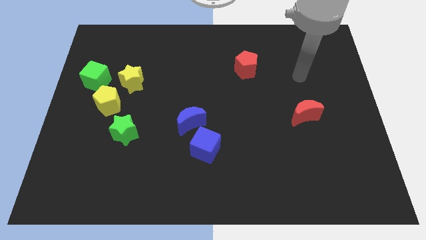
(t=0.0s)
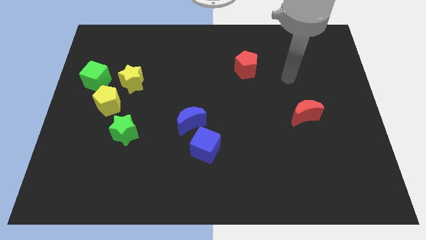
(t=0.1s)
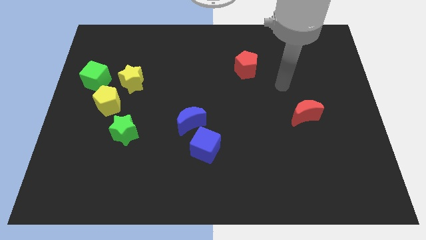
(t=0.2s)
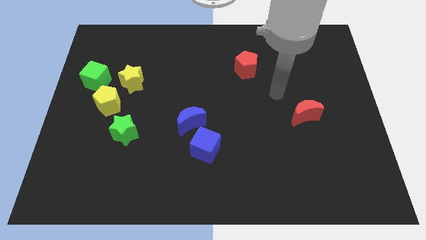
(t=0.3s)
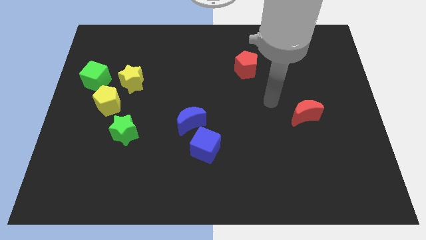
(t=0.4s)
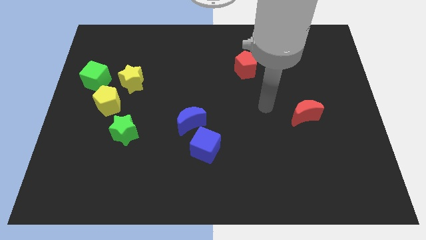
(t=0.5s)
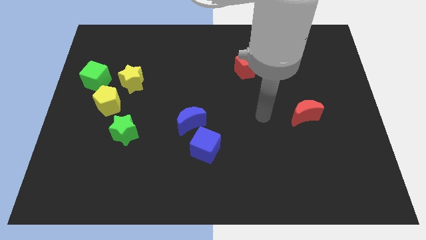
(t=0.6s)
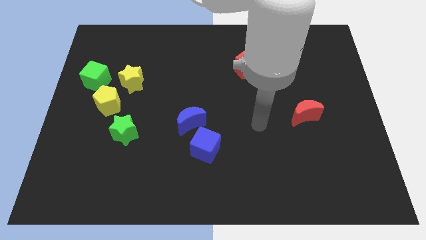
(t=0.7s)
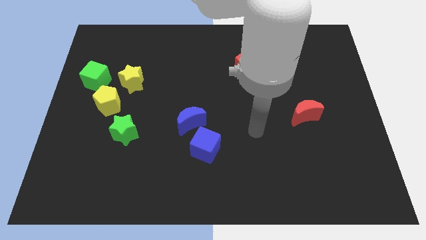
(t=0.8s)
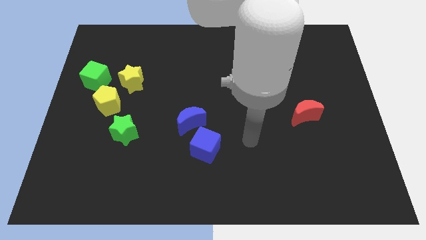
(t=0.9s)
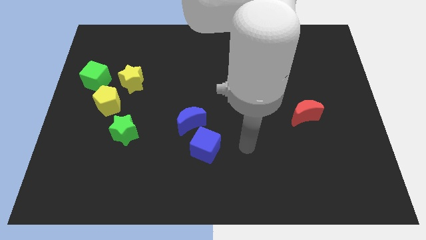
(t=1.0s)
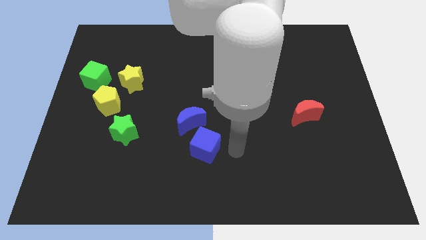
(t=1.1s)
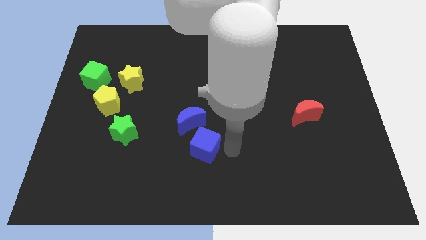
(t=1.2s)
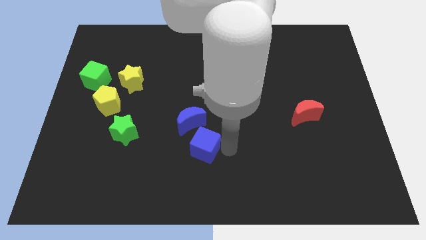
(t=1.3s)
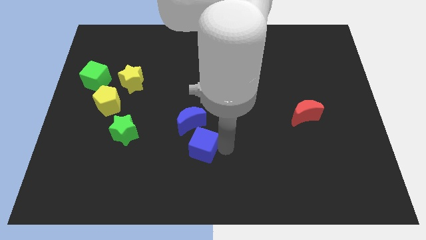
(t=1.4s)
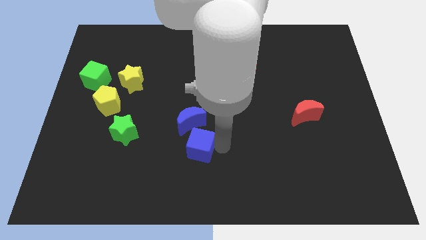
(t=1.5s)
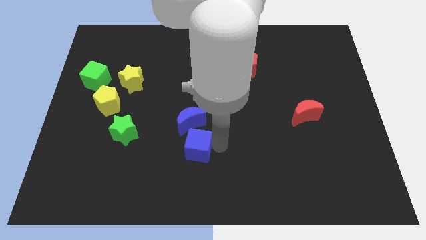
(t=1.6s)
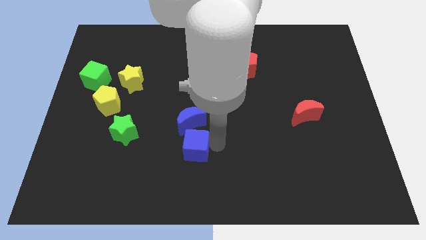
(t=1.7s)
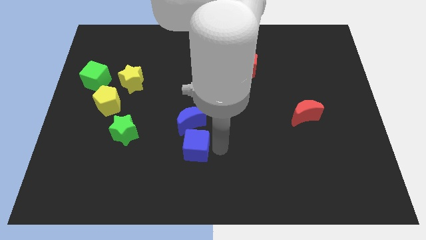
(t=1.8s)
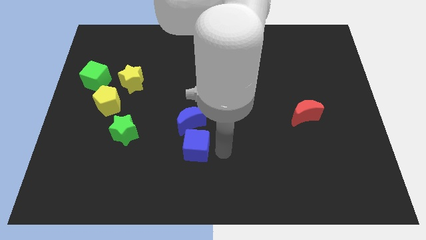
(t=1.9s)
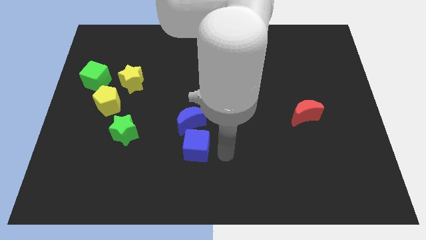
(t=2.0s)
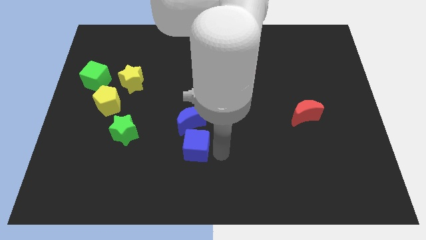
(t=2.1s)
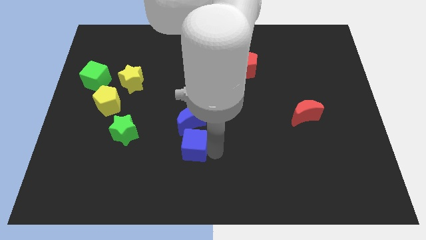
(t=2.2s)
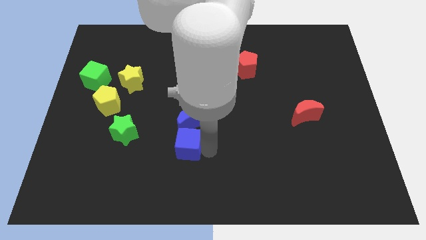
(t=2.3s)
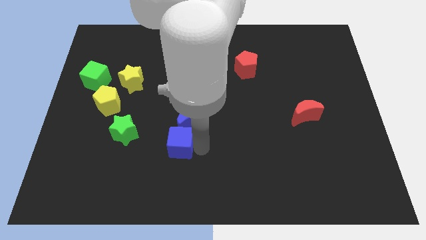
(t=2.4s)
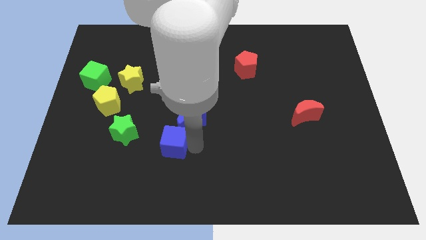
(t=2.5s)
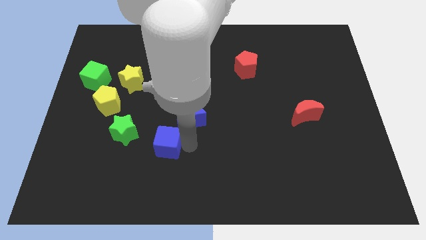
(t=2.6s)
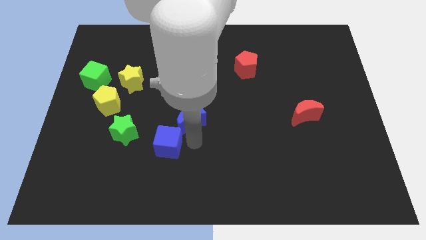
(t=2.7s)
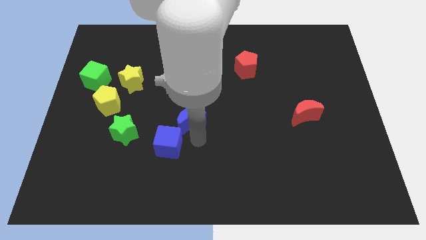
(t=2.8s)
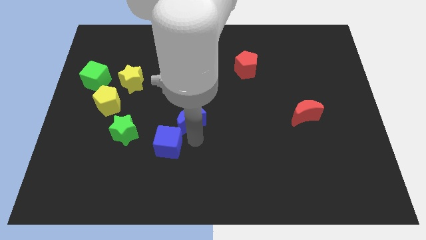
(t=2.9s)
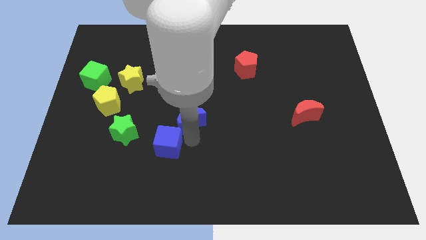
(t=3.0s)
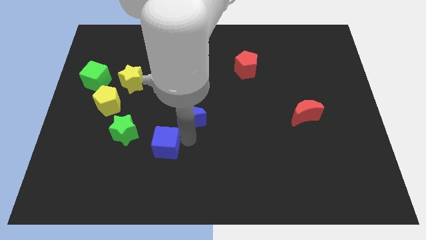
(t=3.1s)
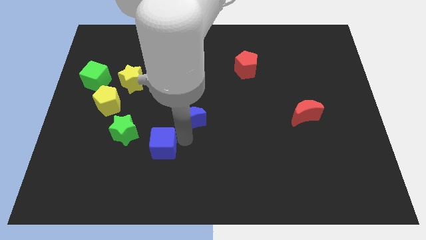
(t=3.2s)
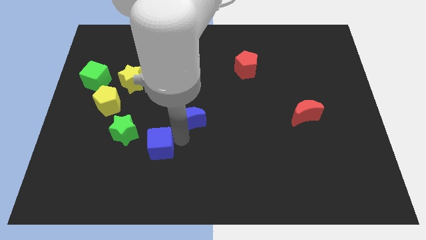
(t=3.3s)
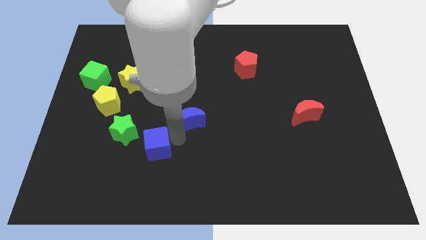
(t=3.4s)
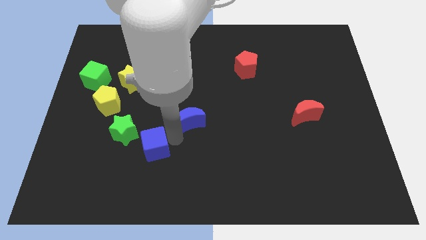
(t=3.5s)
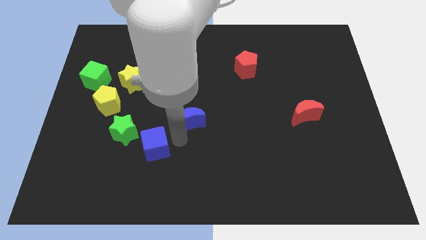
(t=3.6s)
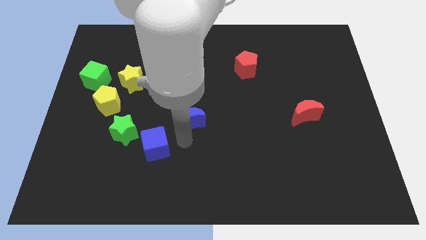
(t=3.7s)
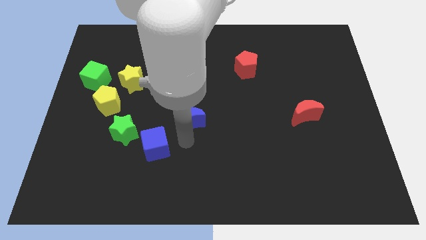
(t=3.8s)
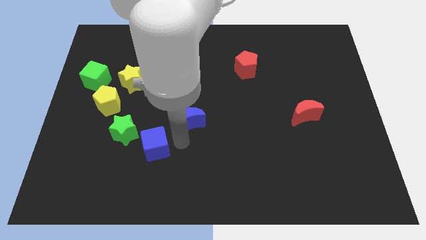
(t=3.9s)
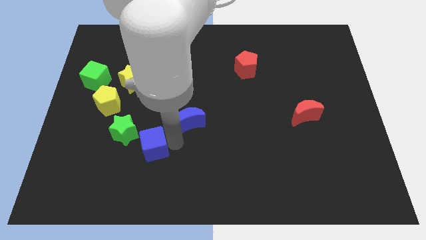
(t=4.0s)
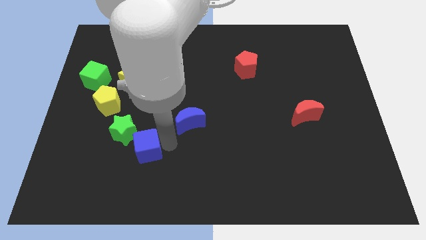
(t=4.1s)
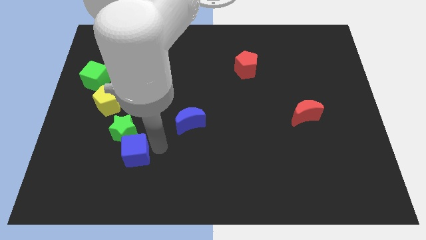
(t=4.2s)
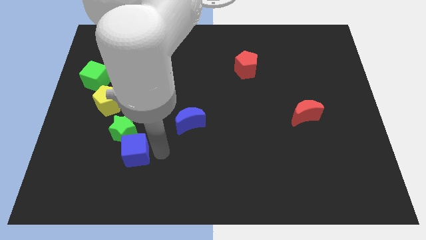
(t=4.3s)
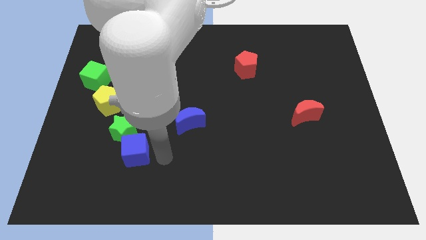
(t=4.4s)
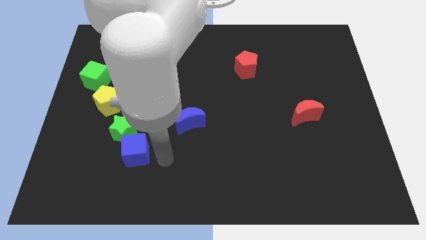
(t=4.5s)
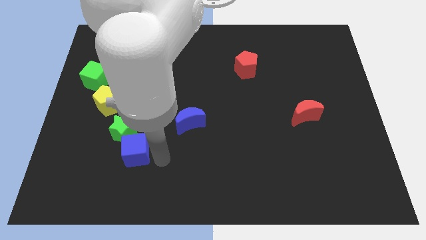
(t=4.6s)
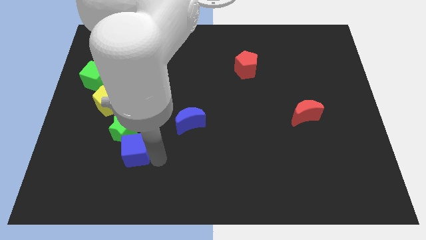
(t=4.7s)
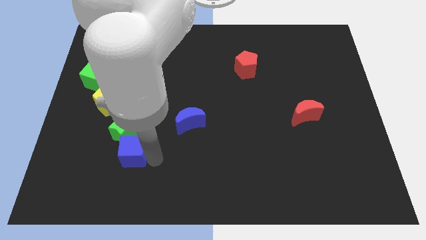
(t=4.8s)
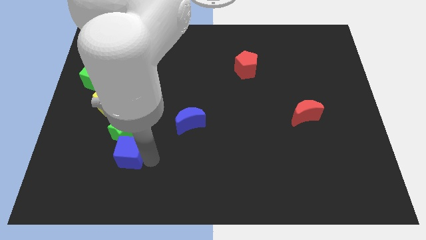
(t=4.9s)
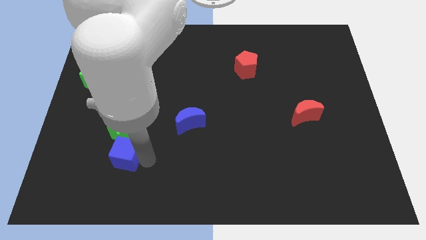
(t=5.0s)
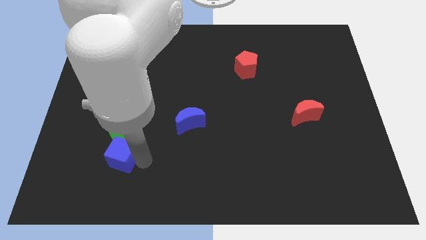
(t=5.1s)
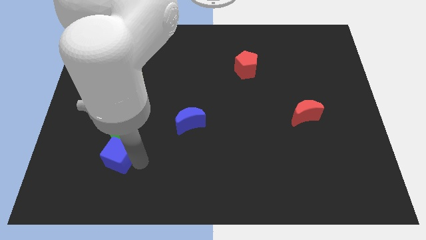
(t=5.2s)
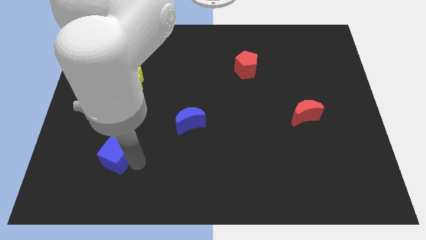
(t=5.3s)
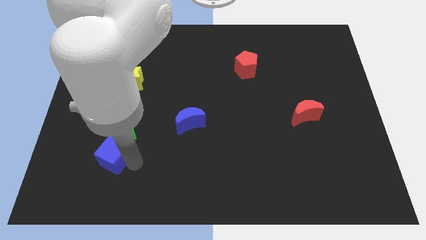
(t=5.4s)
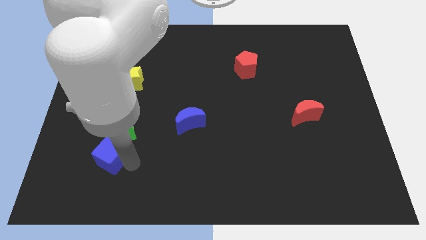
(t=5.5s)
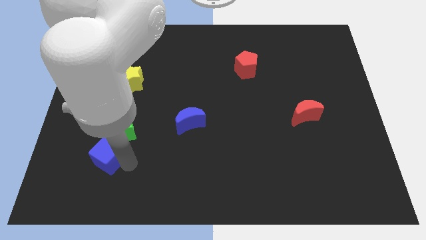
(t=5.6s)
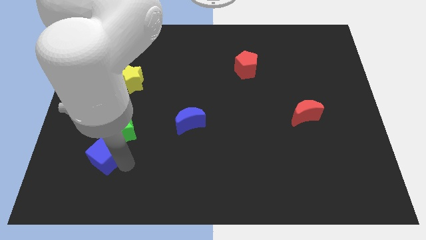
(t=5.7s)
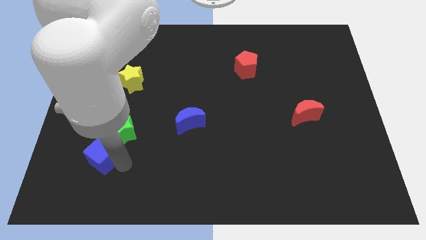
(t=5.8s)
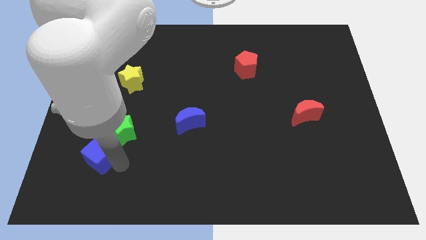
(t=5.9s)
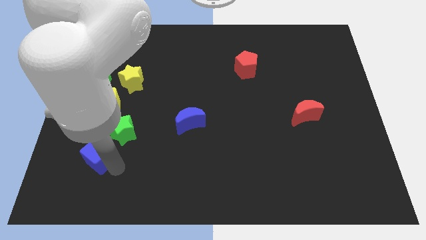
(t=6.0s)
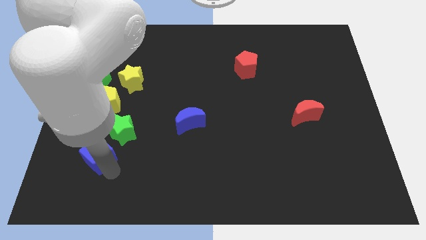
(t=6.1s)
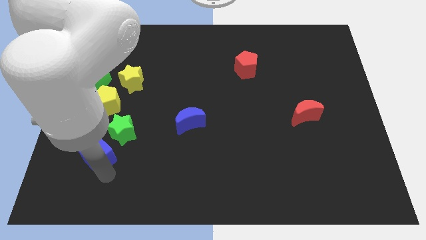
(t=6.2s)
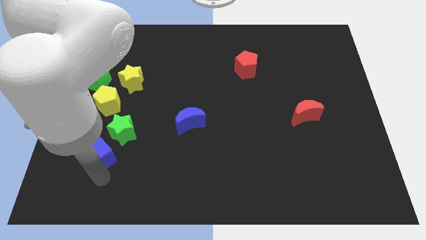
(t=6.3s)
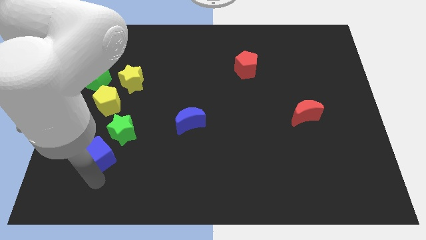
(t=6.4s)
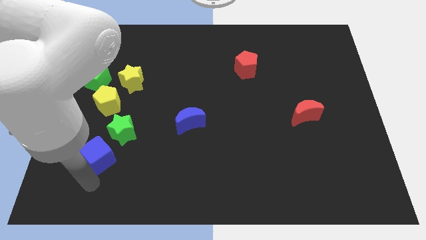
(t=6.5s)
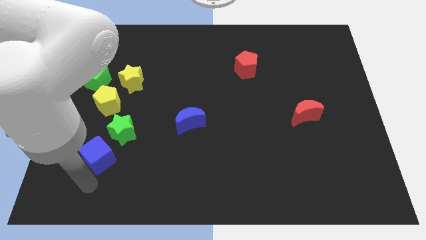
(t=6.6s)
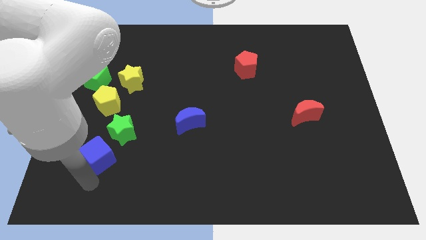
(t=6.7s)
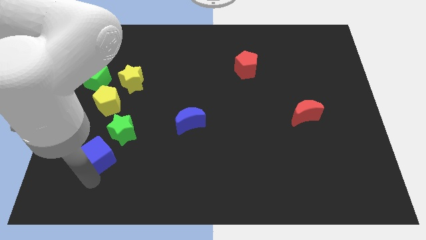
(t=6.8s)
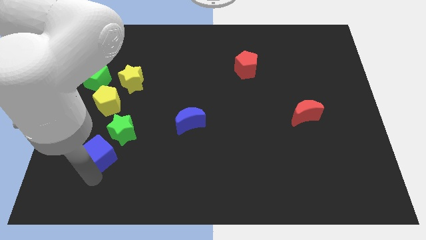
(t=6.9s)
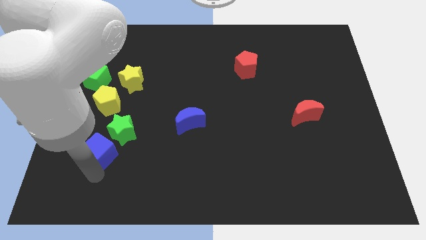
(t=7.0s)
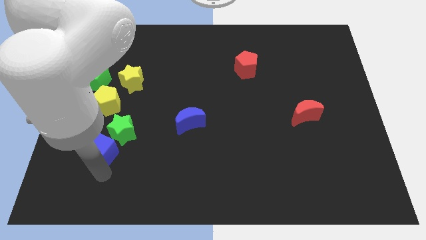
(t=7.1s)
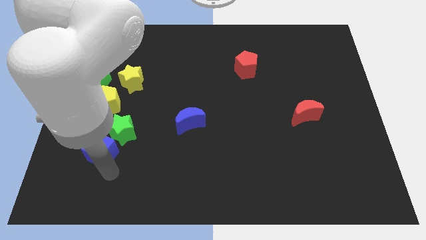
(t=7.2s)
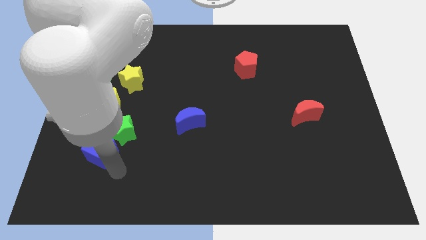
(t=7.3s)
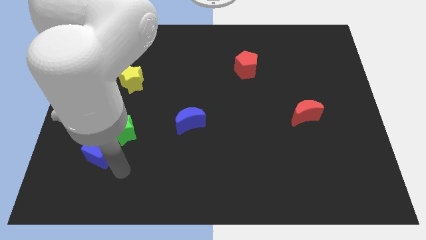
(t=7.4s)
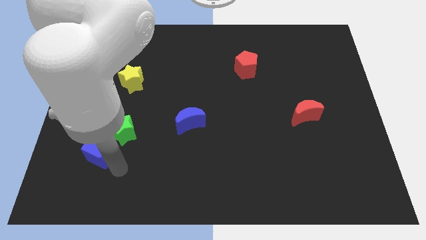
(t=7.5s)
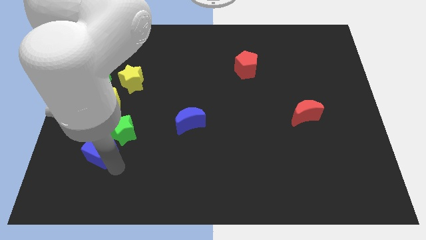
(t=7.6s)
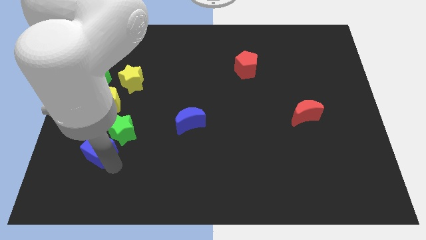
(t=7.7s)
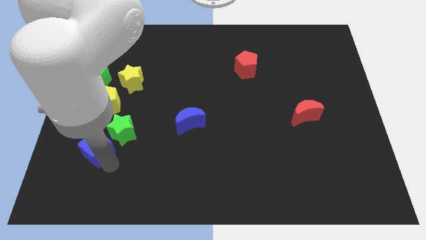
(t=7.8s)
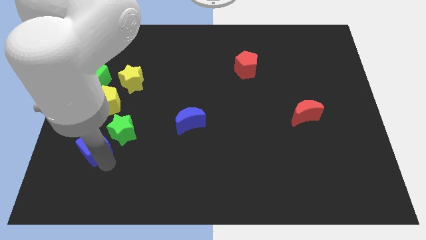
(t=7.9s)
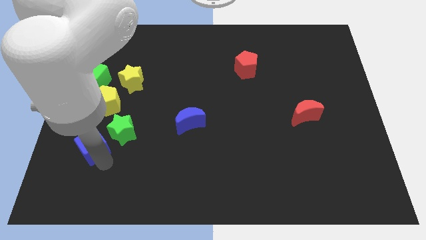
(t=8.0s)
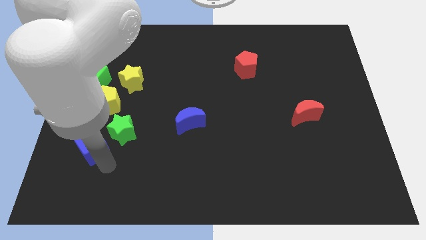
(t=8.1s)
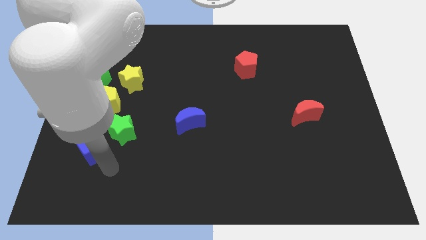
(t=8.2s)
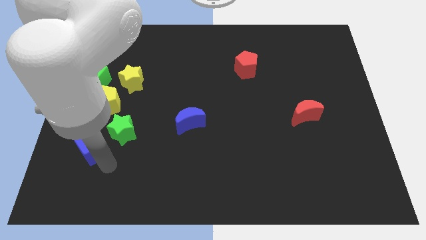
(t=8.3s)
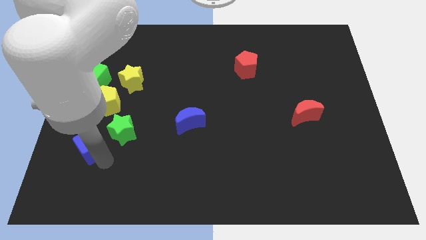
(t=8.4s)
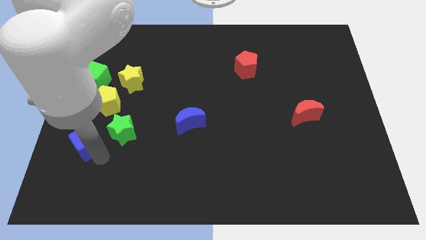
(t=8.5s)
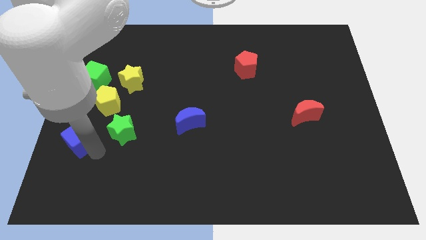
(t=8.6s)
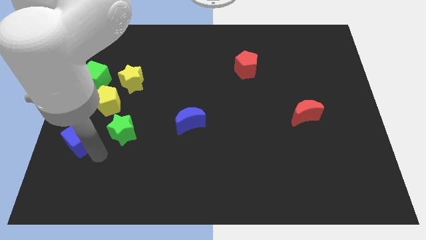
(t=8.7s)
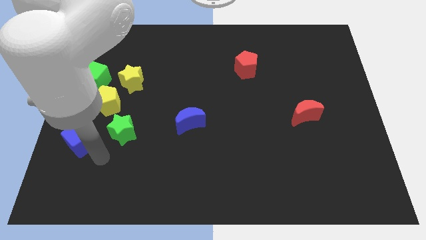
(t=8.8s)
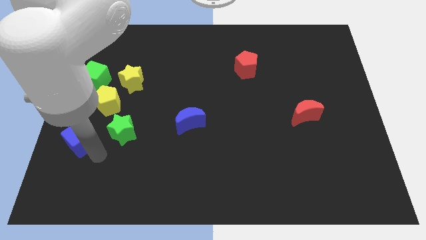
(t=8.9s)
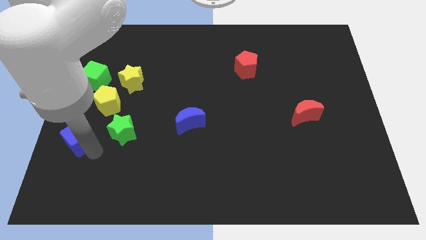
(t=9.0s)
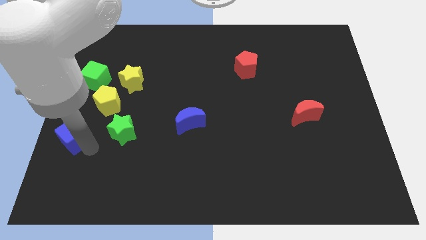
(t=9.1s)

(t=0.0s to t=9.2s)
slide the blue cube to the left side
